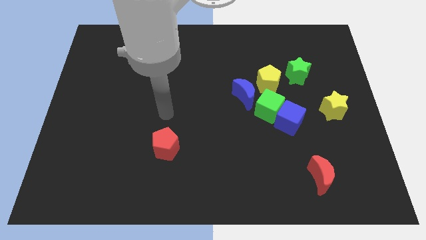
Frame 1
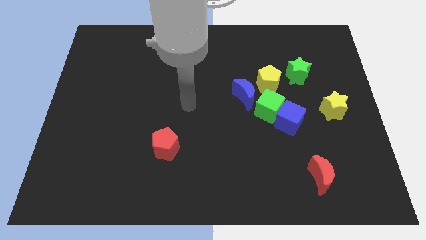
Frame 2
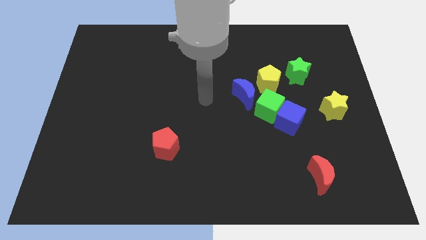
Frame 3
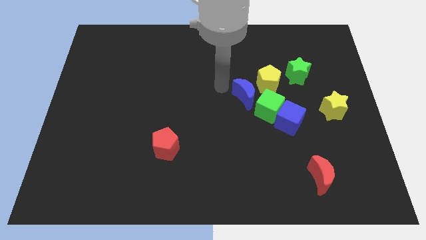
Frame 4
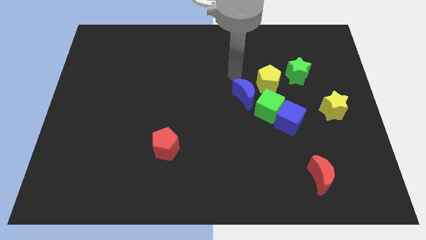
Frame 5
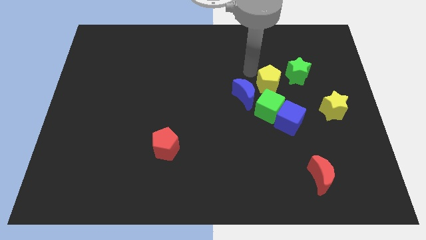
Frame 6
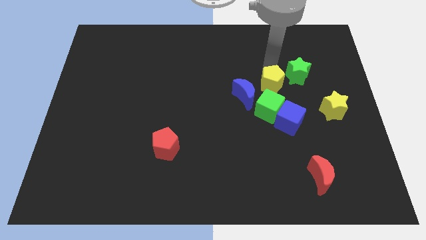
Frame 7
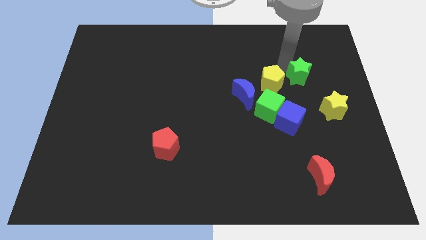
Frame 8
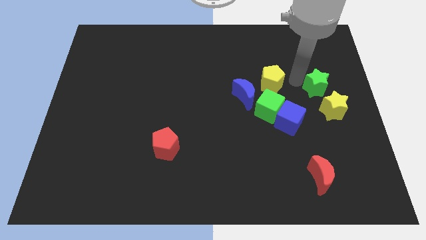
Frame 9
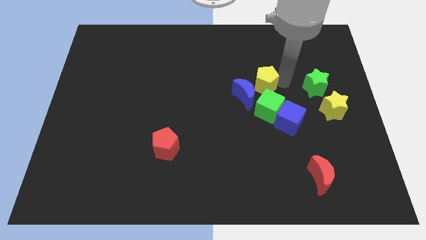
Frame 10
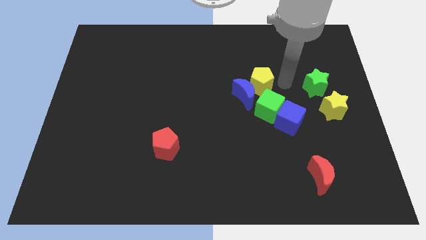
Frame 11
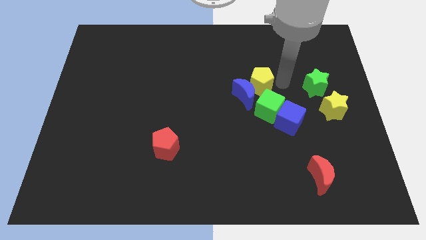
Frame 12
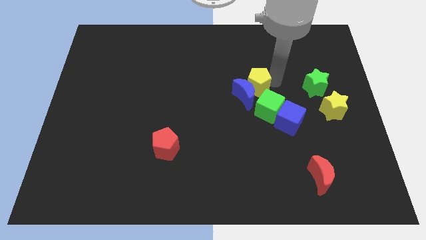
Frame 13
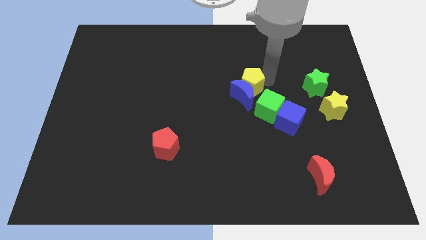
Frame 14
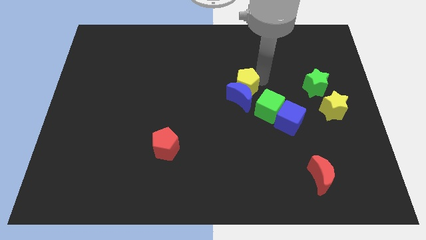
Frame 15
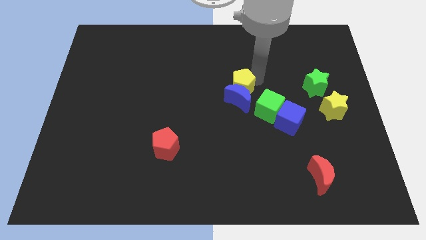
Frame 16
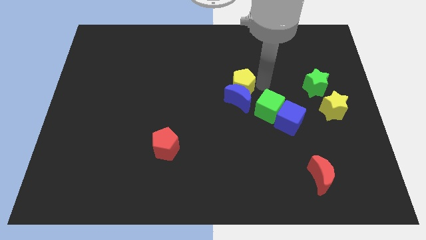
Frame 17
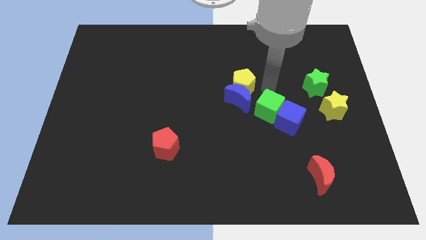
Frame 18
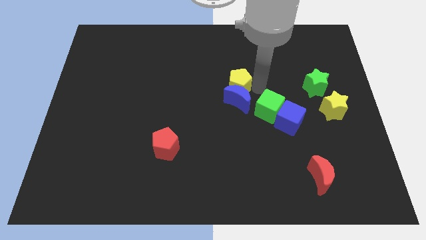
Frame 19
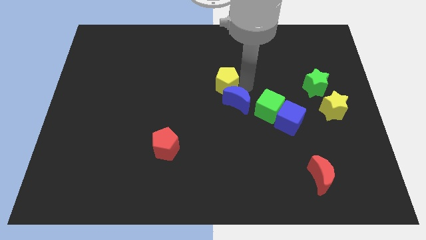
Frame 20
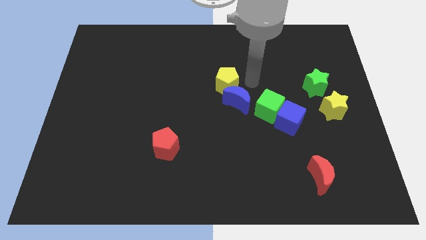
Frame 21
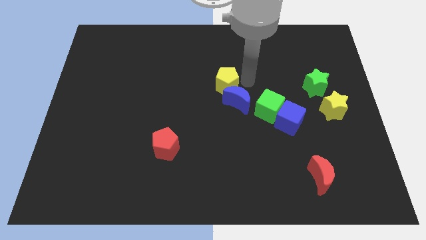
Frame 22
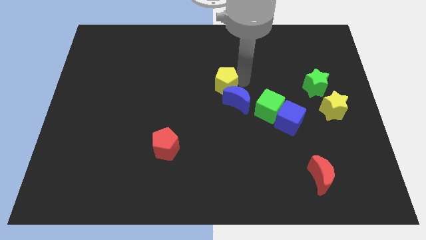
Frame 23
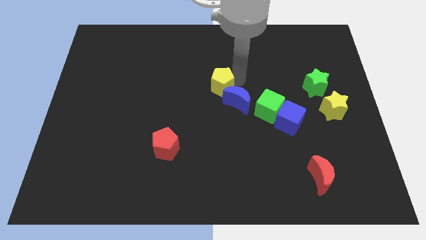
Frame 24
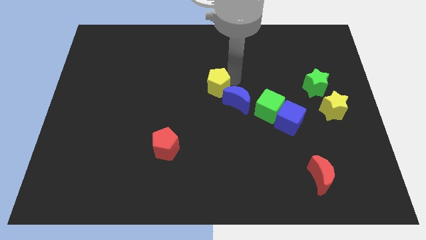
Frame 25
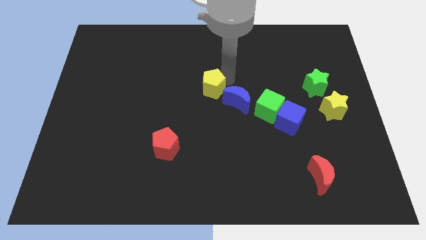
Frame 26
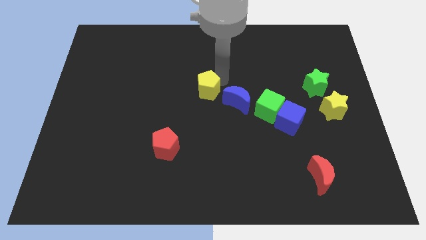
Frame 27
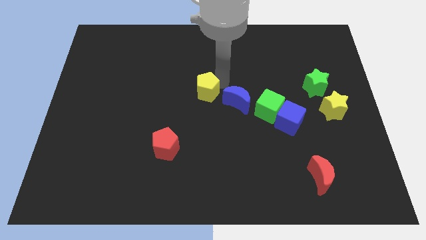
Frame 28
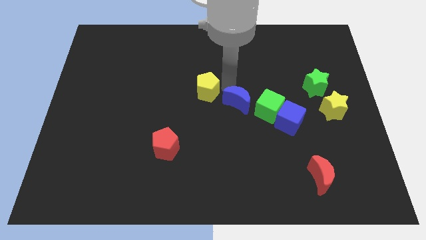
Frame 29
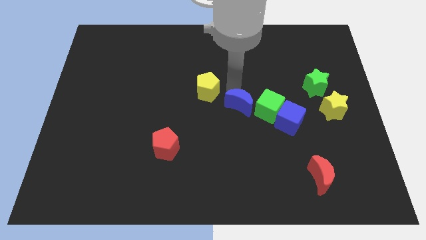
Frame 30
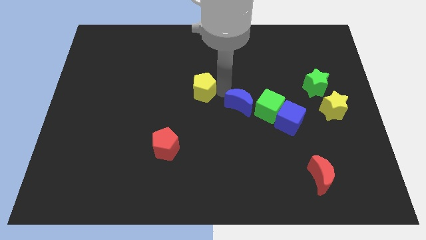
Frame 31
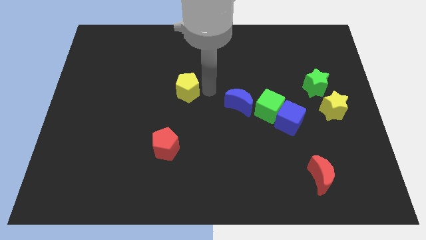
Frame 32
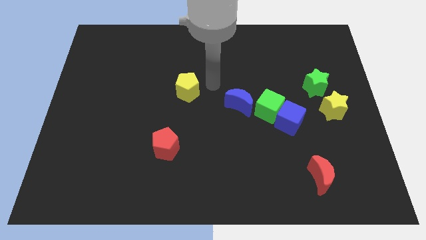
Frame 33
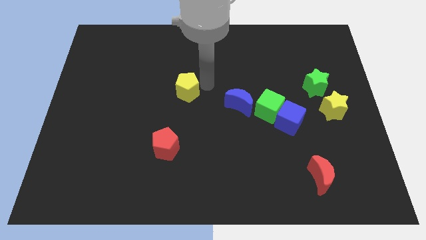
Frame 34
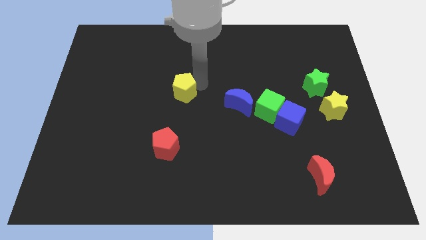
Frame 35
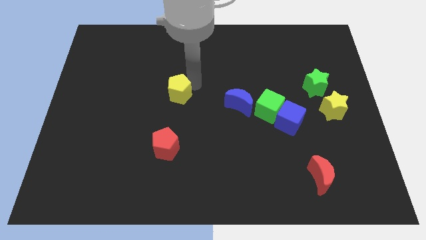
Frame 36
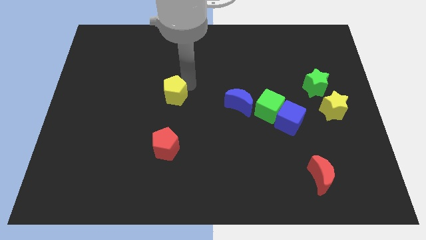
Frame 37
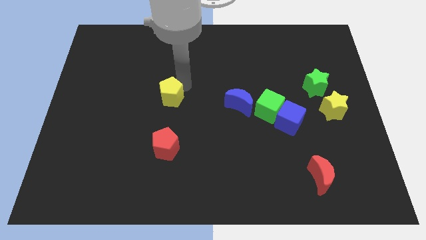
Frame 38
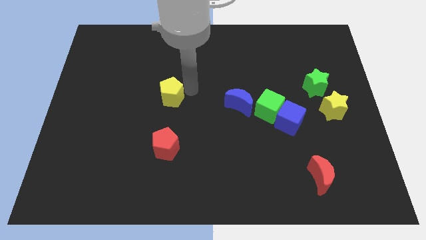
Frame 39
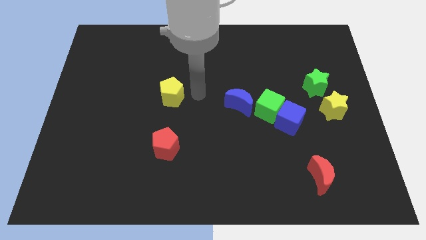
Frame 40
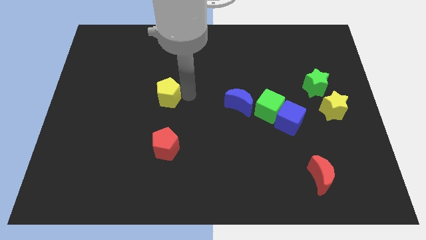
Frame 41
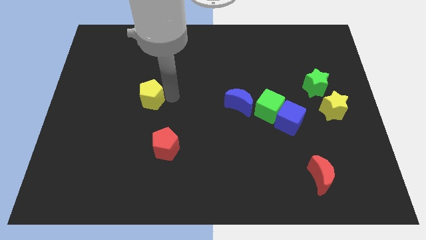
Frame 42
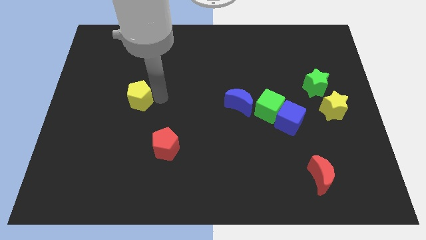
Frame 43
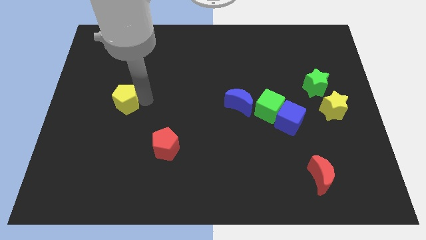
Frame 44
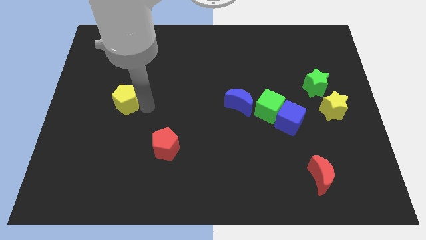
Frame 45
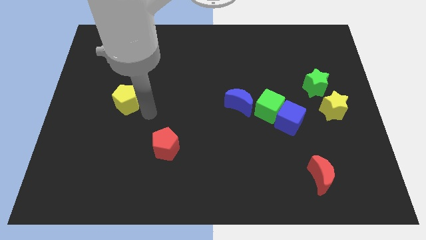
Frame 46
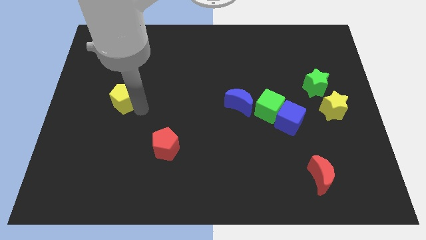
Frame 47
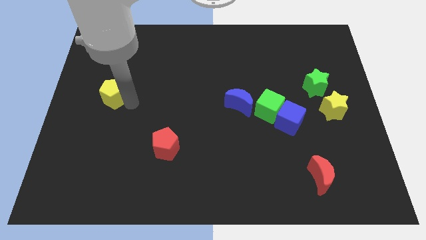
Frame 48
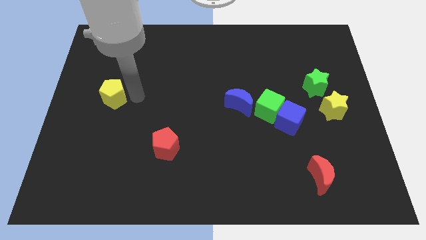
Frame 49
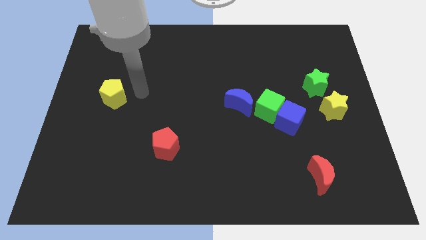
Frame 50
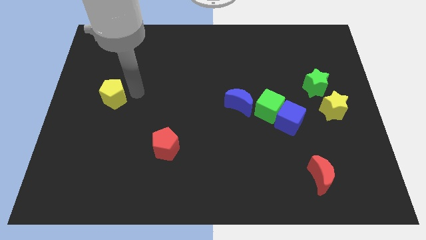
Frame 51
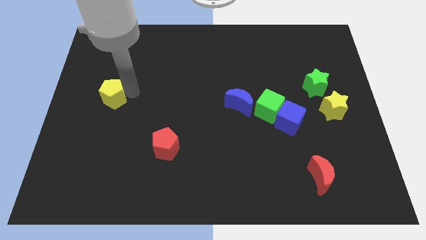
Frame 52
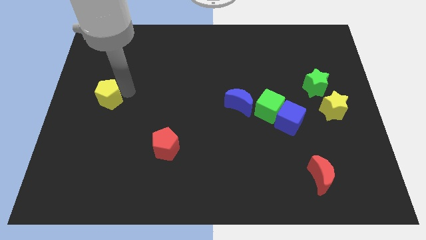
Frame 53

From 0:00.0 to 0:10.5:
push the yellow pentagon to the center left

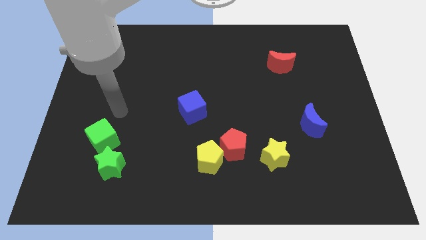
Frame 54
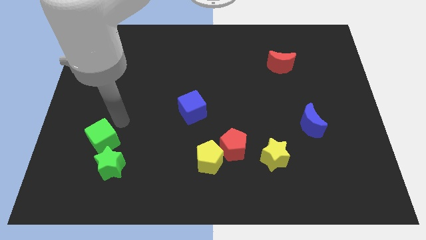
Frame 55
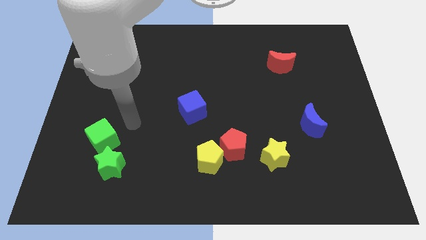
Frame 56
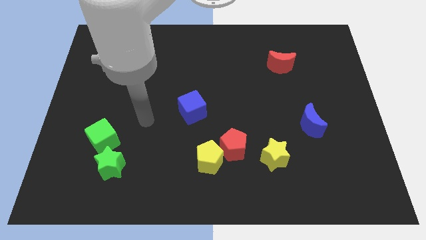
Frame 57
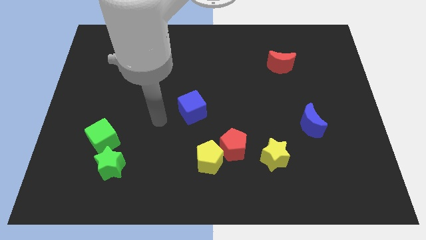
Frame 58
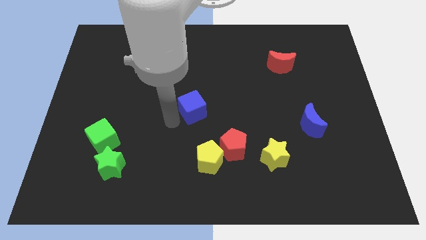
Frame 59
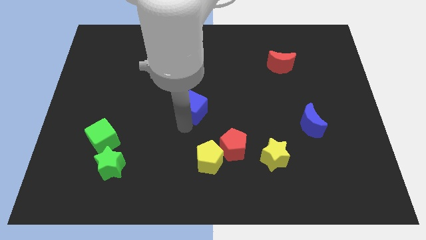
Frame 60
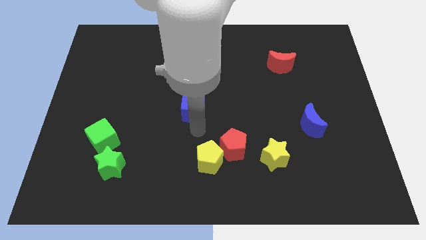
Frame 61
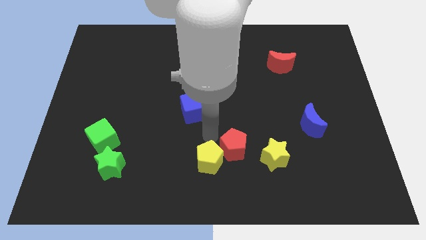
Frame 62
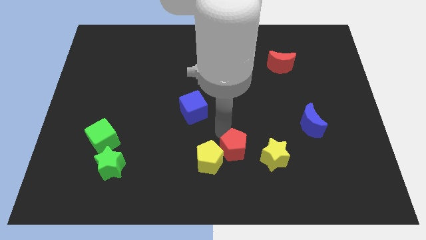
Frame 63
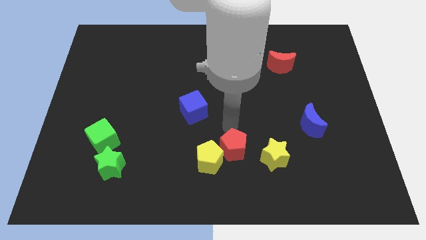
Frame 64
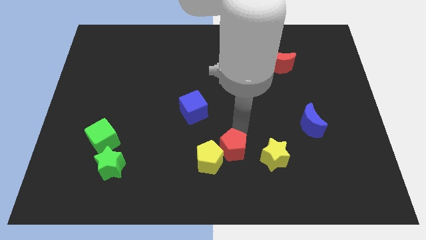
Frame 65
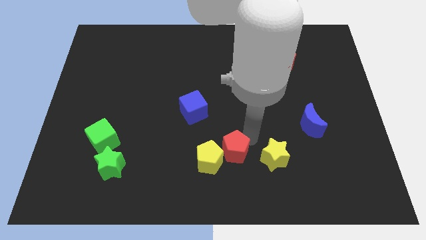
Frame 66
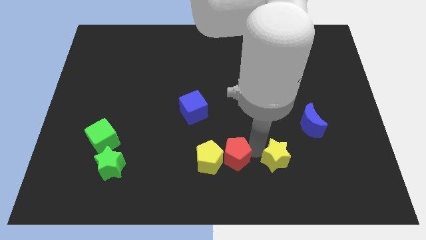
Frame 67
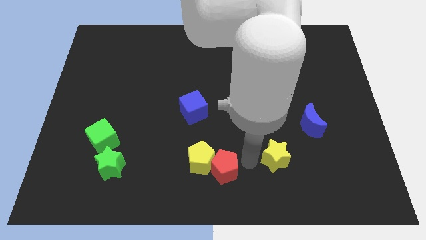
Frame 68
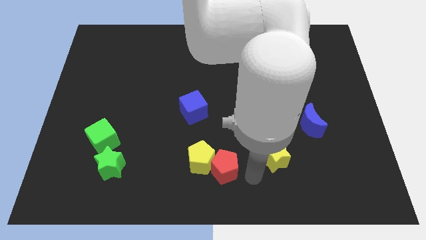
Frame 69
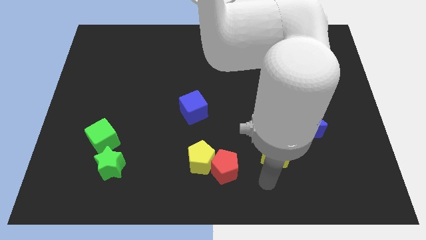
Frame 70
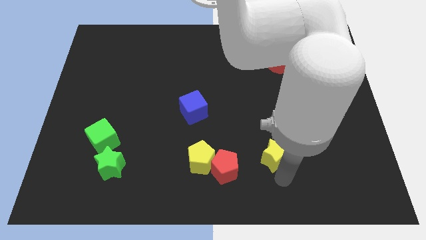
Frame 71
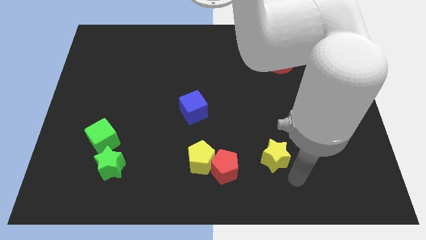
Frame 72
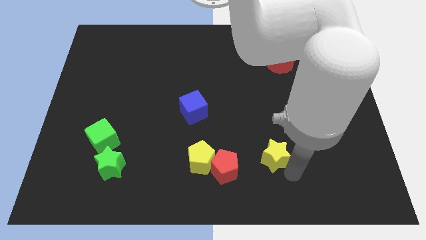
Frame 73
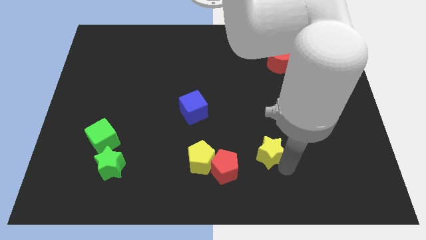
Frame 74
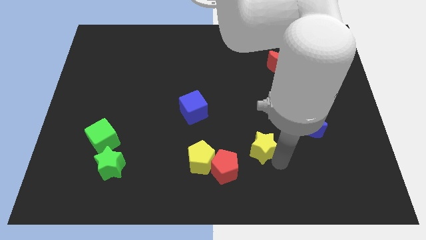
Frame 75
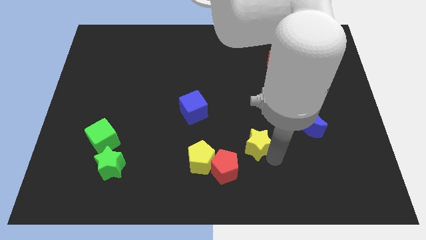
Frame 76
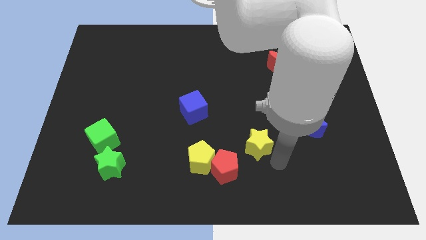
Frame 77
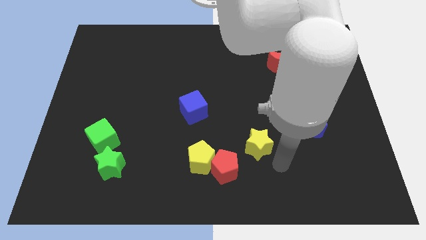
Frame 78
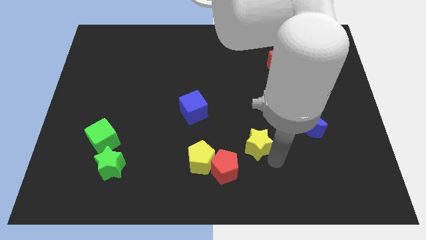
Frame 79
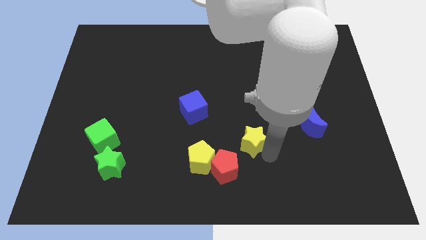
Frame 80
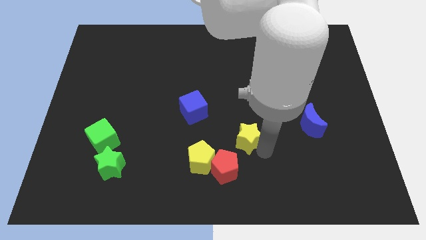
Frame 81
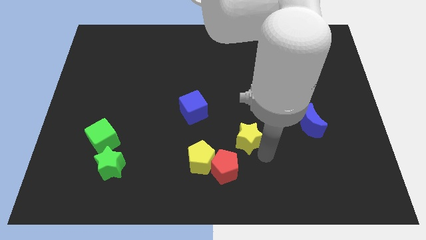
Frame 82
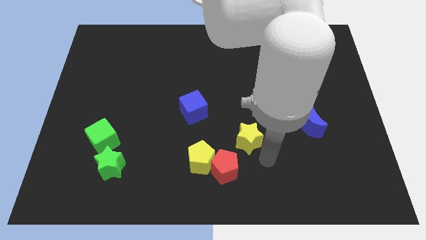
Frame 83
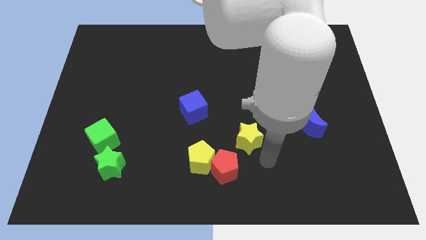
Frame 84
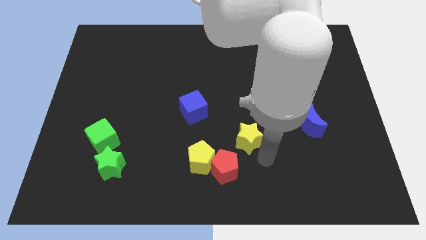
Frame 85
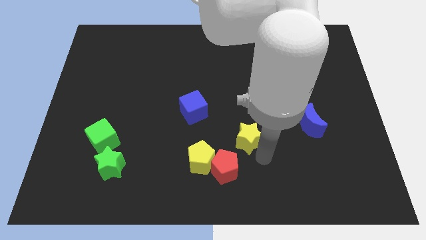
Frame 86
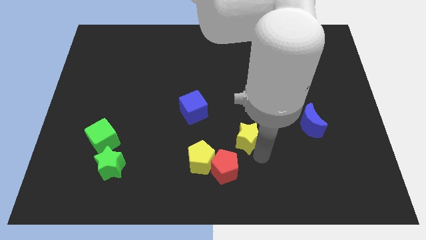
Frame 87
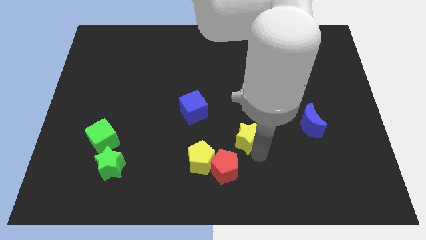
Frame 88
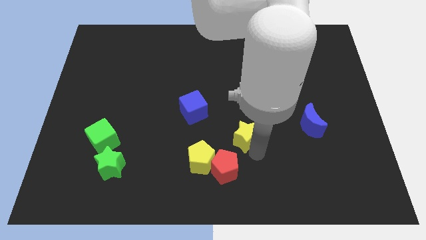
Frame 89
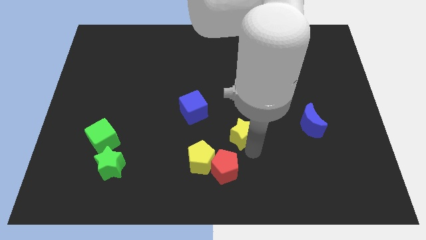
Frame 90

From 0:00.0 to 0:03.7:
move the yellow star to the middle
